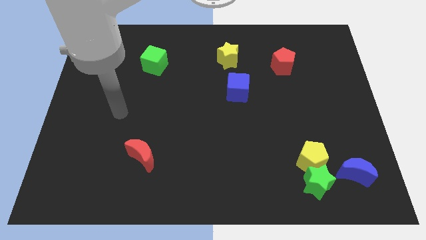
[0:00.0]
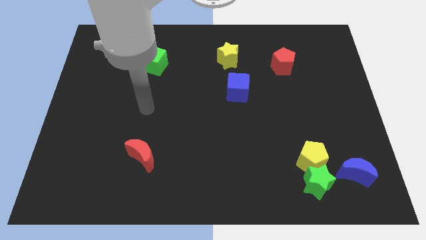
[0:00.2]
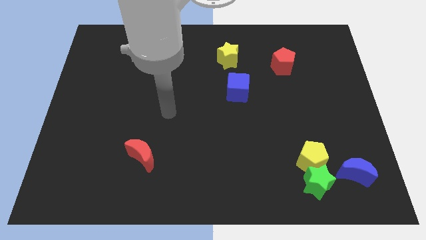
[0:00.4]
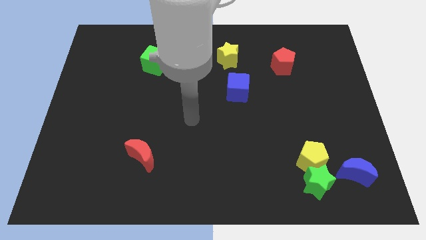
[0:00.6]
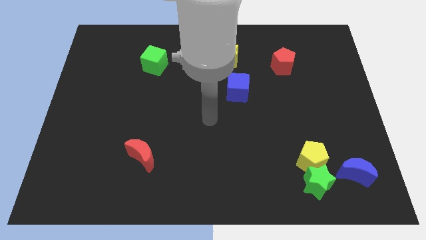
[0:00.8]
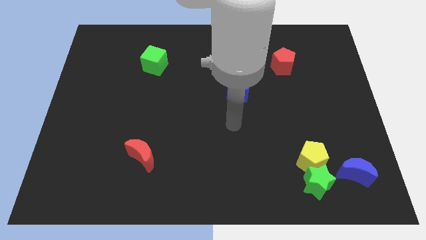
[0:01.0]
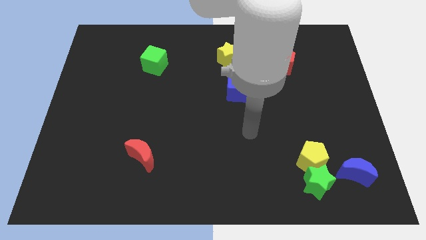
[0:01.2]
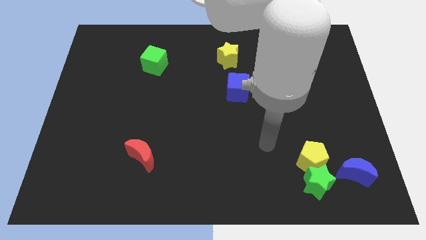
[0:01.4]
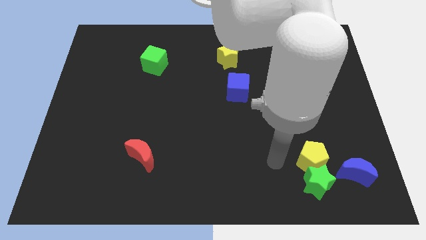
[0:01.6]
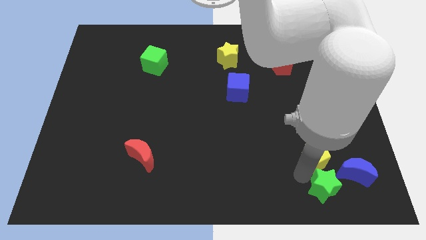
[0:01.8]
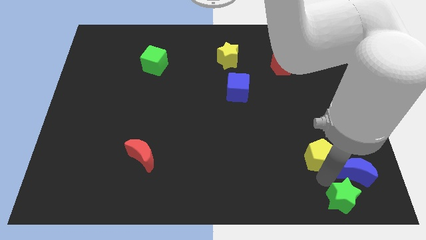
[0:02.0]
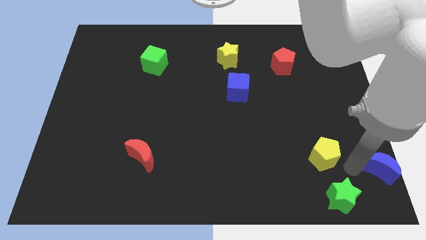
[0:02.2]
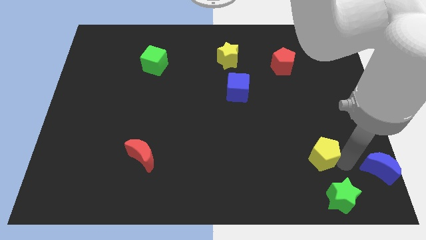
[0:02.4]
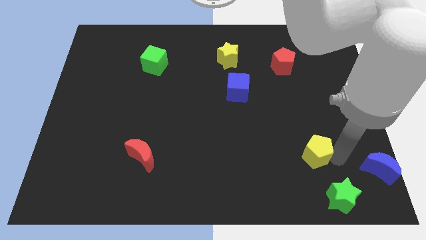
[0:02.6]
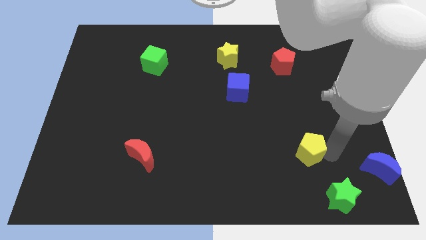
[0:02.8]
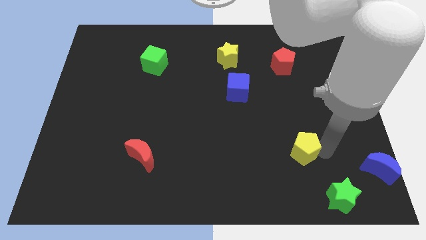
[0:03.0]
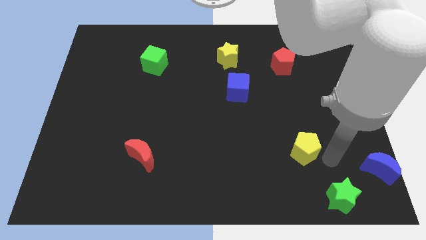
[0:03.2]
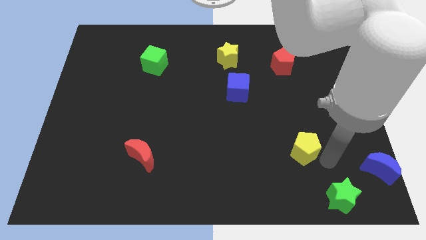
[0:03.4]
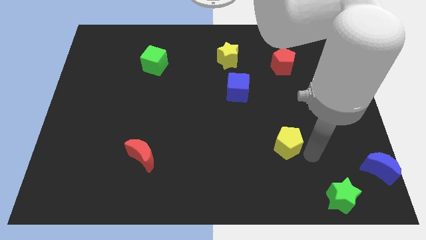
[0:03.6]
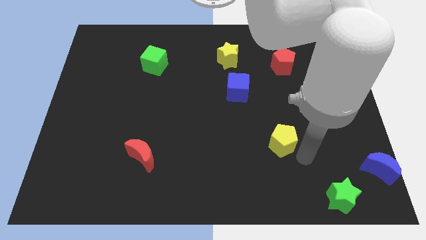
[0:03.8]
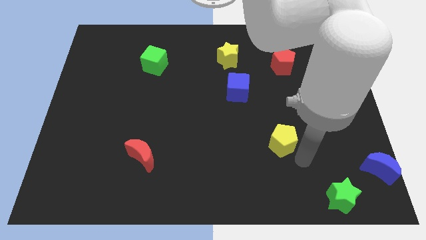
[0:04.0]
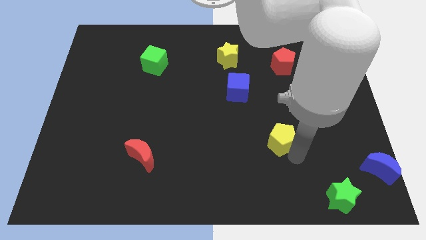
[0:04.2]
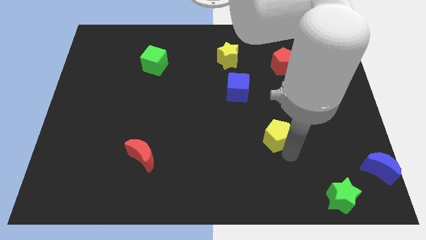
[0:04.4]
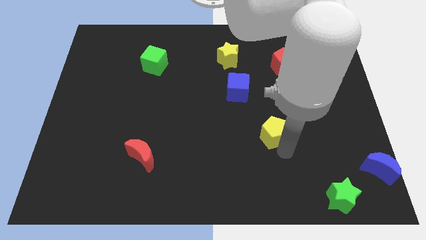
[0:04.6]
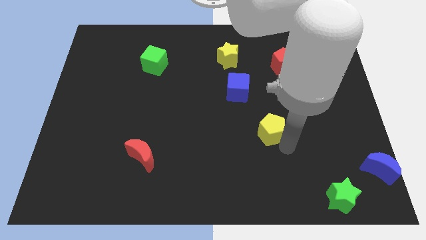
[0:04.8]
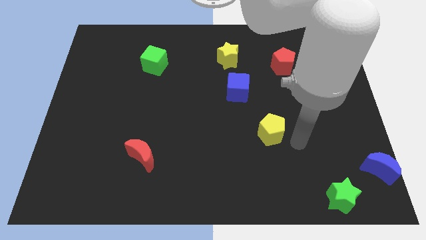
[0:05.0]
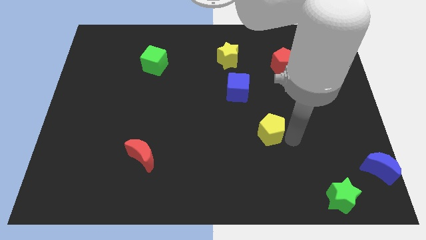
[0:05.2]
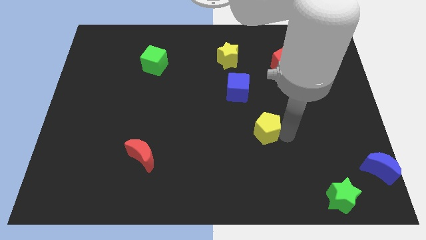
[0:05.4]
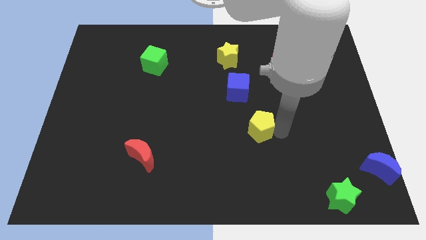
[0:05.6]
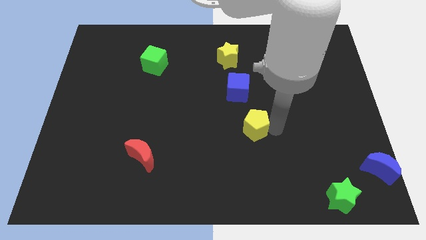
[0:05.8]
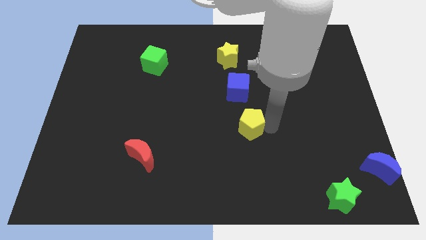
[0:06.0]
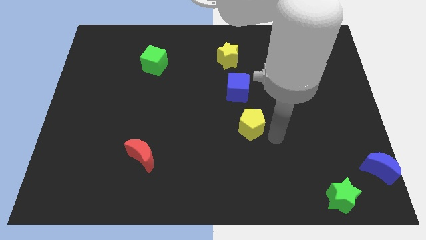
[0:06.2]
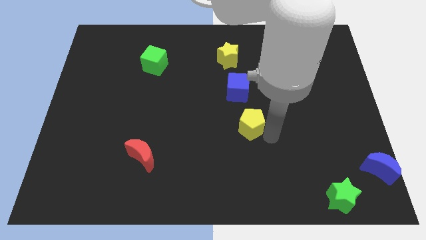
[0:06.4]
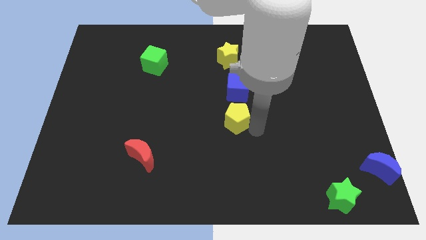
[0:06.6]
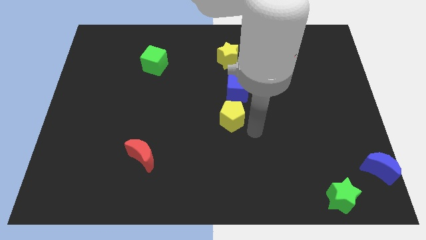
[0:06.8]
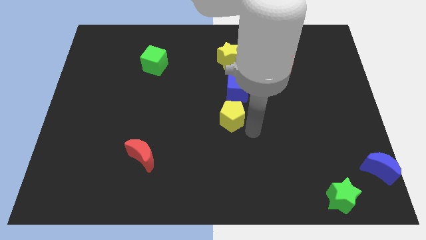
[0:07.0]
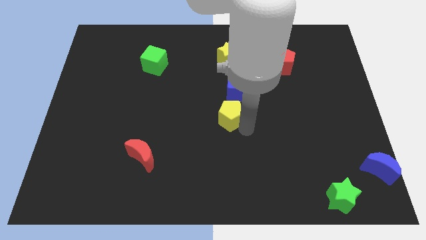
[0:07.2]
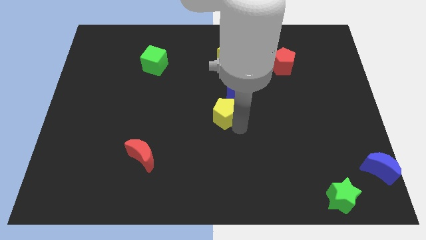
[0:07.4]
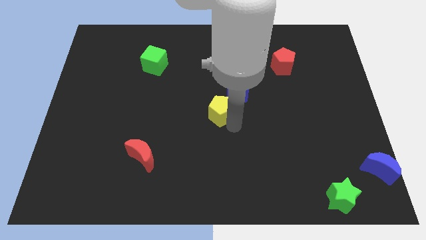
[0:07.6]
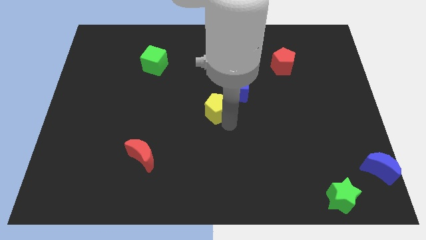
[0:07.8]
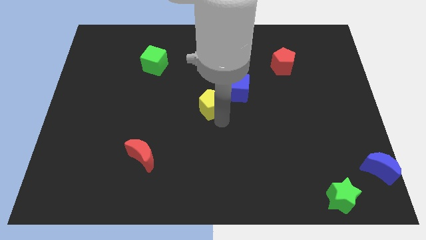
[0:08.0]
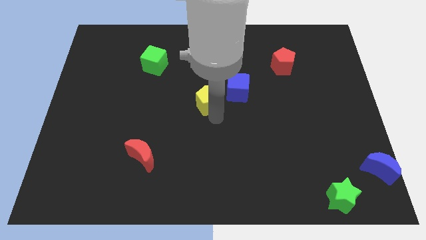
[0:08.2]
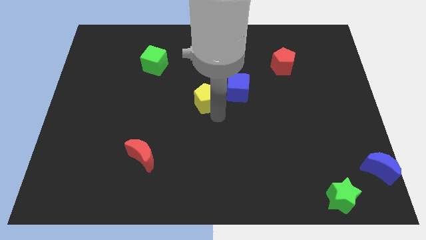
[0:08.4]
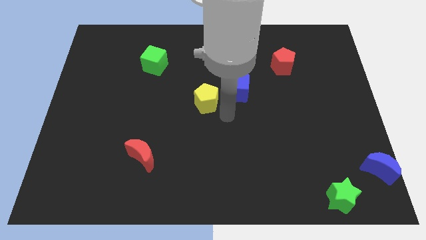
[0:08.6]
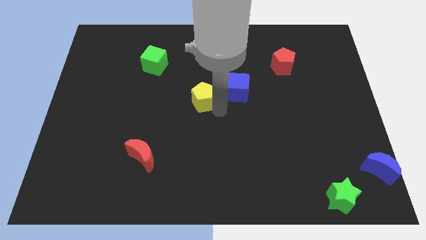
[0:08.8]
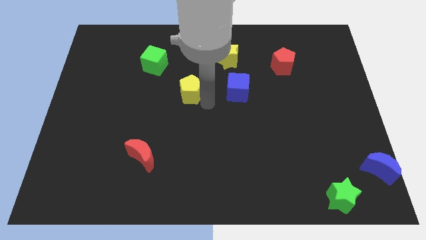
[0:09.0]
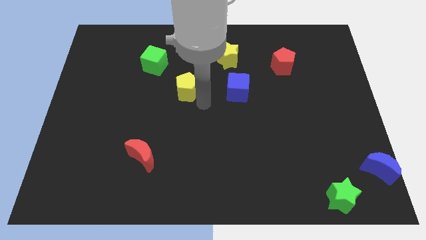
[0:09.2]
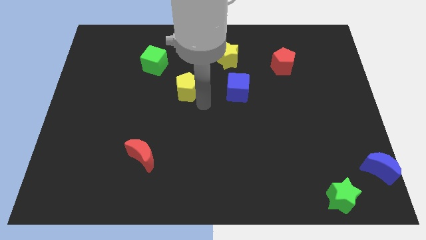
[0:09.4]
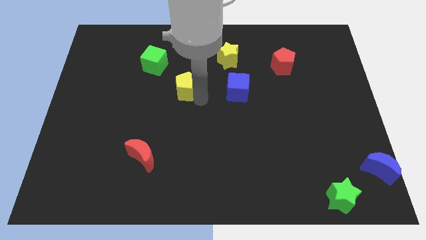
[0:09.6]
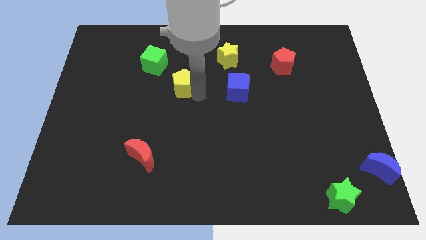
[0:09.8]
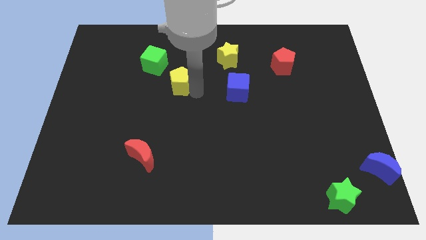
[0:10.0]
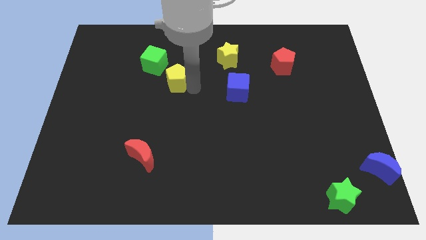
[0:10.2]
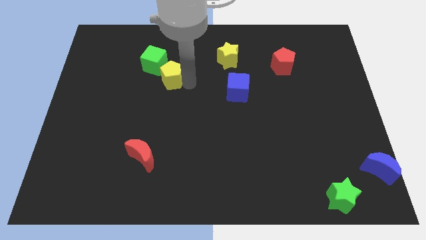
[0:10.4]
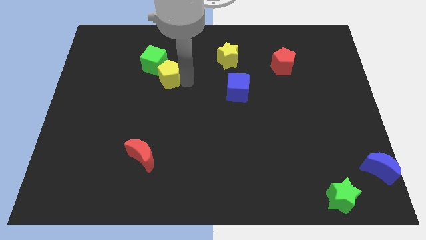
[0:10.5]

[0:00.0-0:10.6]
slide the yellow pentagon close to the green cube
